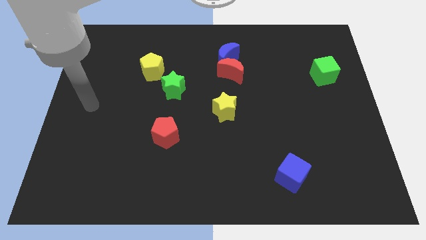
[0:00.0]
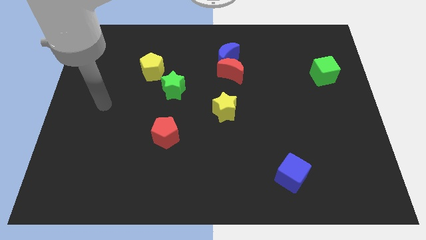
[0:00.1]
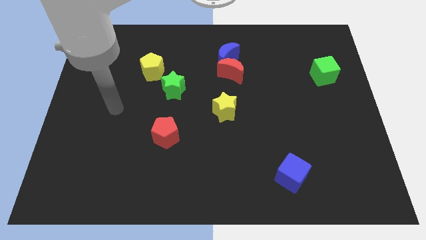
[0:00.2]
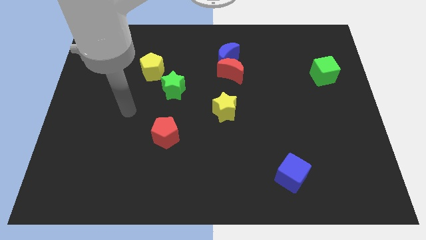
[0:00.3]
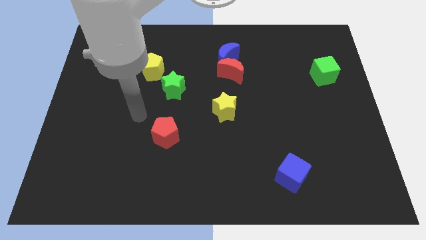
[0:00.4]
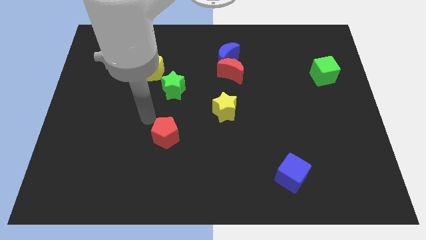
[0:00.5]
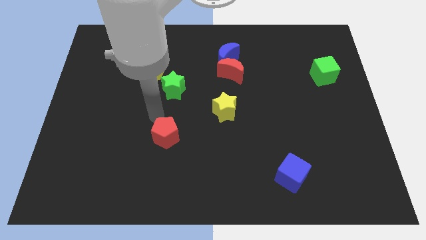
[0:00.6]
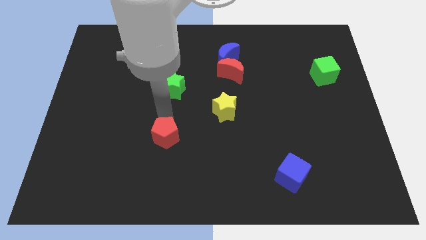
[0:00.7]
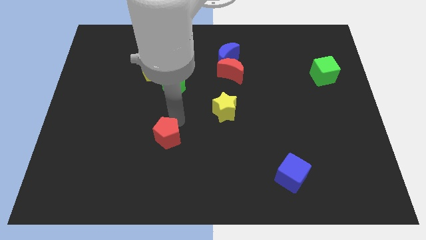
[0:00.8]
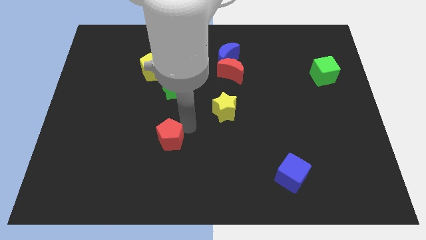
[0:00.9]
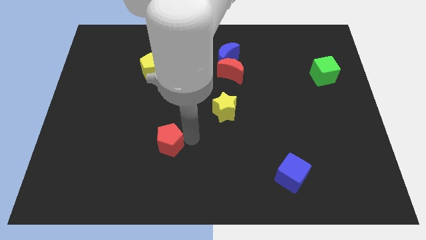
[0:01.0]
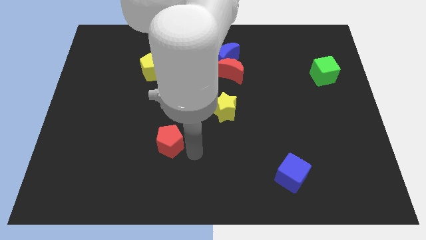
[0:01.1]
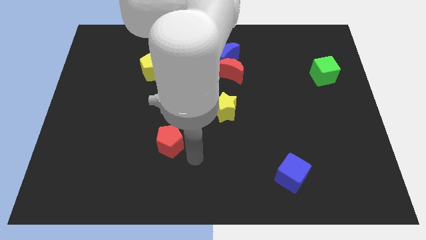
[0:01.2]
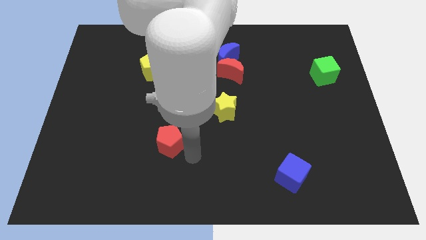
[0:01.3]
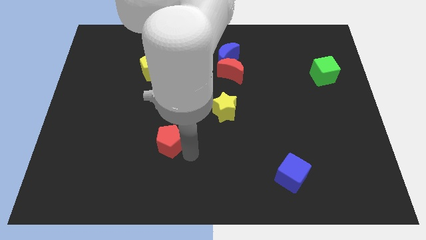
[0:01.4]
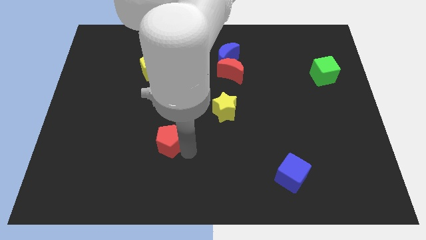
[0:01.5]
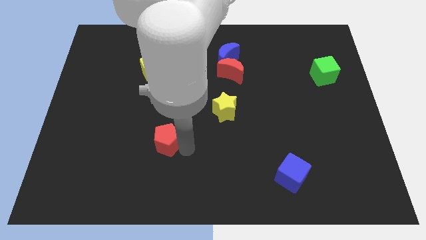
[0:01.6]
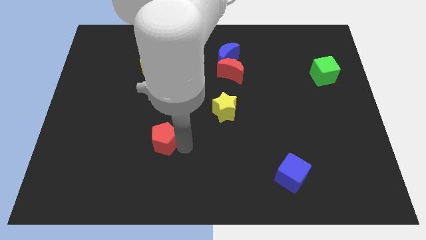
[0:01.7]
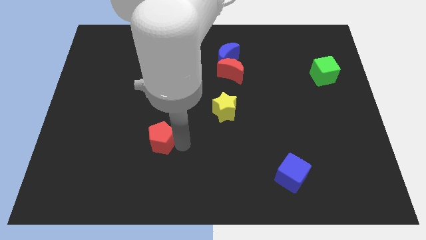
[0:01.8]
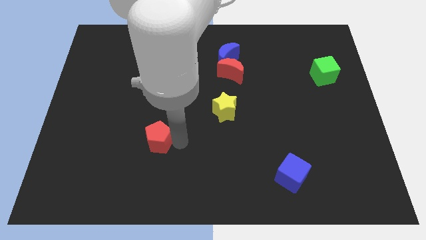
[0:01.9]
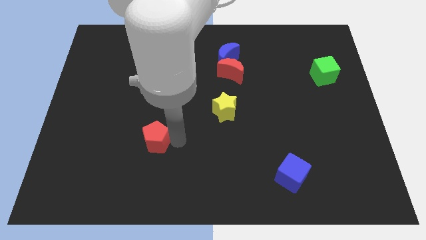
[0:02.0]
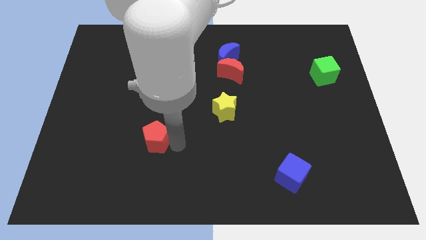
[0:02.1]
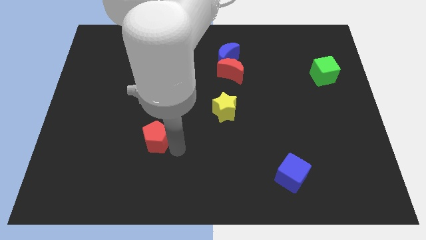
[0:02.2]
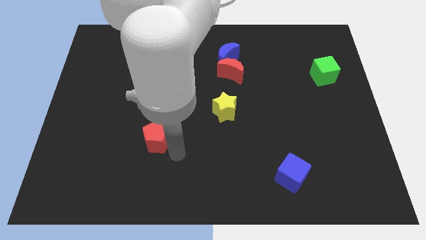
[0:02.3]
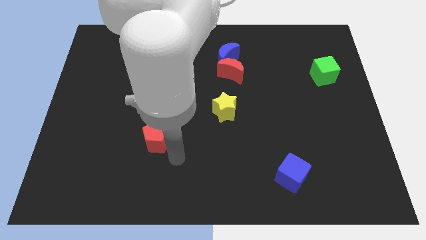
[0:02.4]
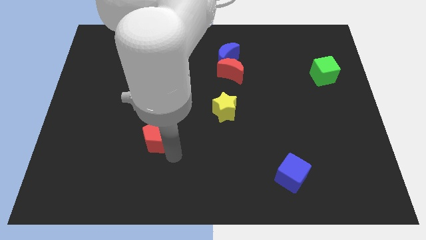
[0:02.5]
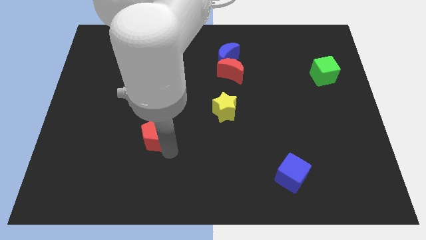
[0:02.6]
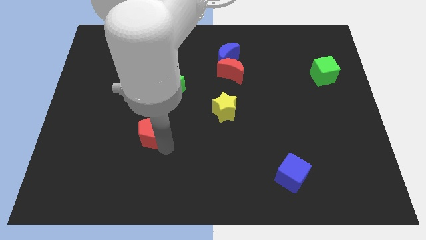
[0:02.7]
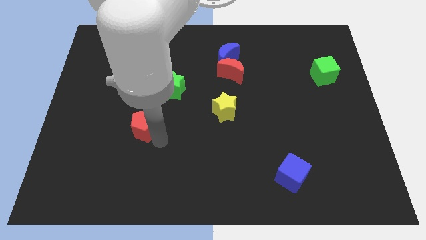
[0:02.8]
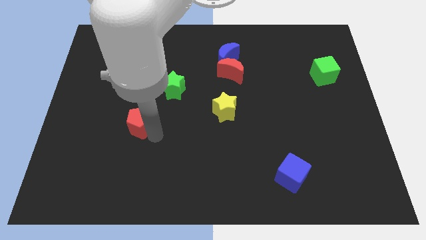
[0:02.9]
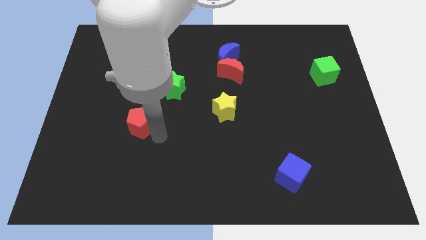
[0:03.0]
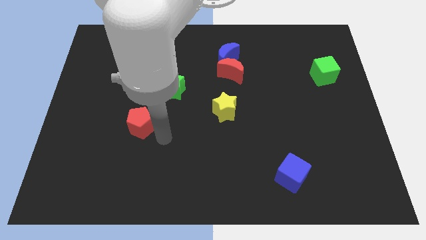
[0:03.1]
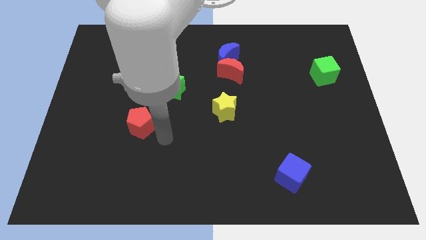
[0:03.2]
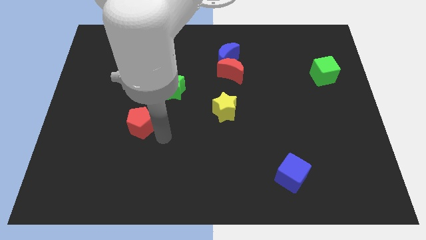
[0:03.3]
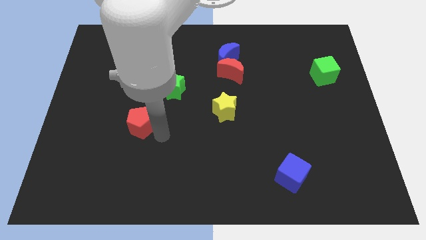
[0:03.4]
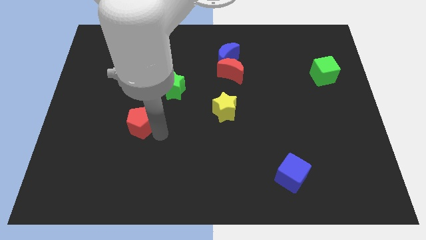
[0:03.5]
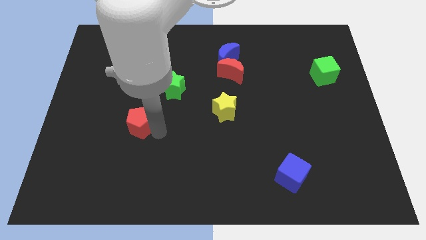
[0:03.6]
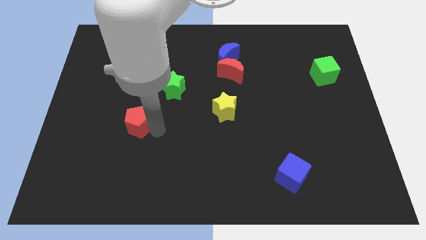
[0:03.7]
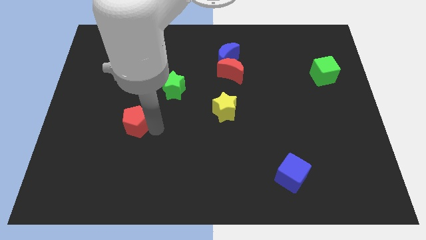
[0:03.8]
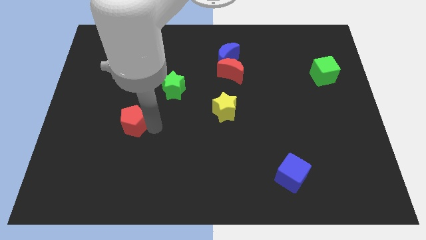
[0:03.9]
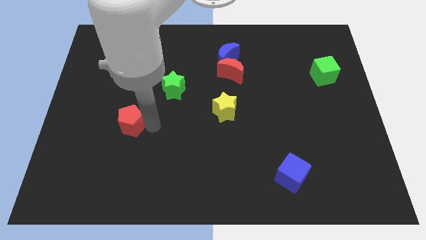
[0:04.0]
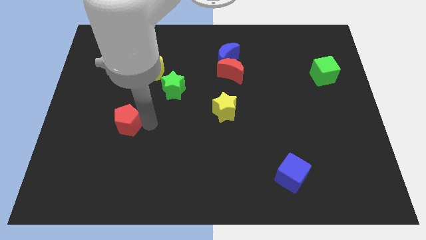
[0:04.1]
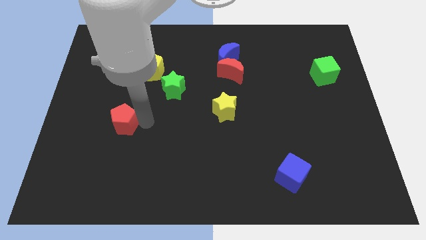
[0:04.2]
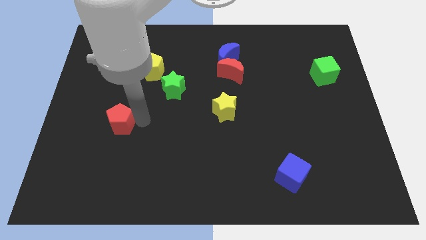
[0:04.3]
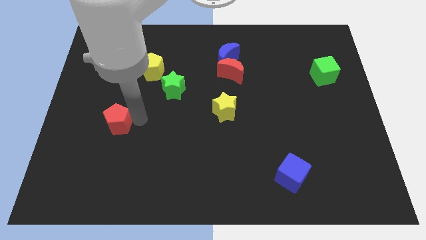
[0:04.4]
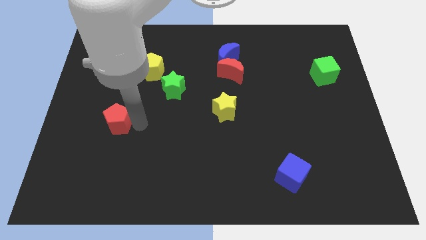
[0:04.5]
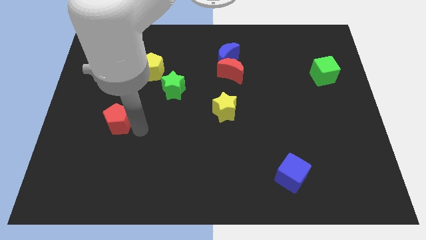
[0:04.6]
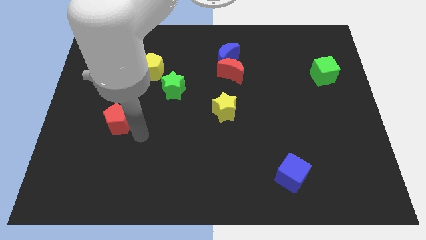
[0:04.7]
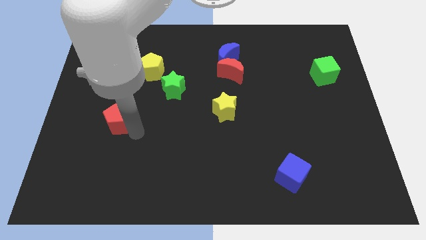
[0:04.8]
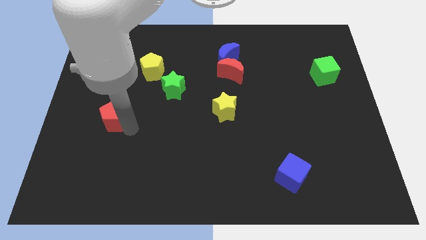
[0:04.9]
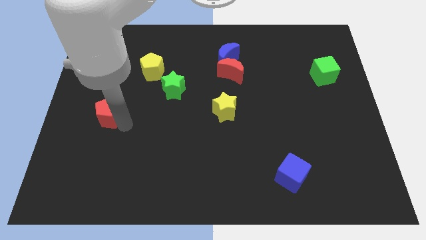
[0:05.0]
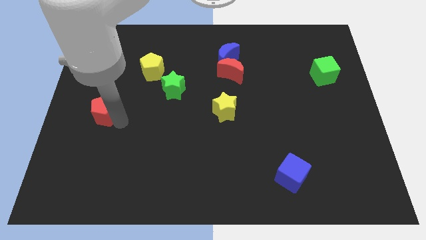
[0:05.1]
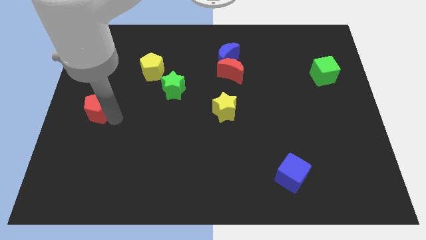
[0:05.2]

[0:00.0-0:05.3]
put the red pentagon to the center left

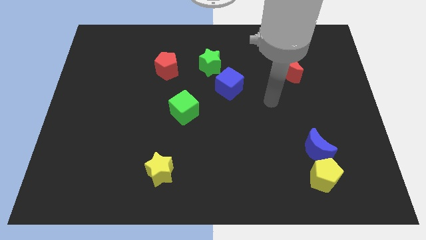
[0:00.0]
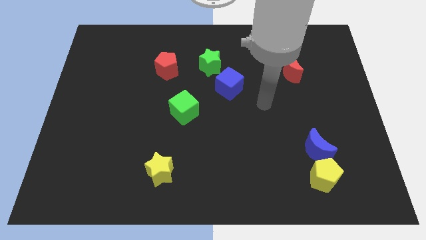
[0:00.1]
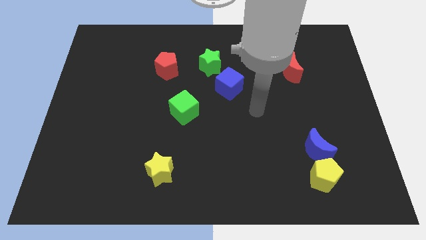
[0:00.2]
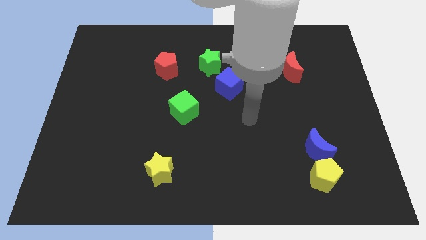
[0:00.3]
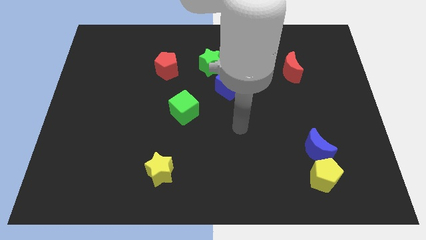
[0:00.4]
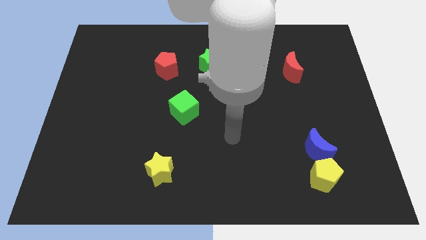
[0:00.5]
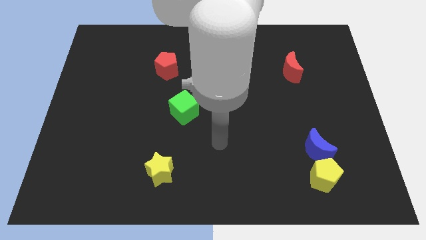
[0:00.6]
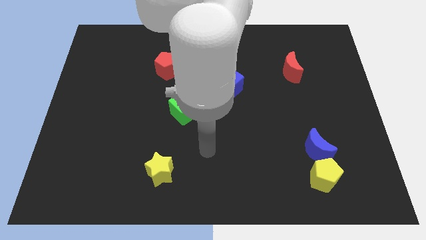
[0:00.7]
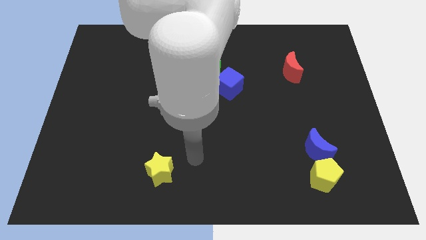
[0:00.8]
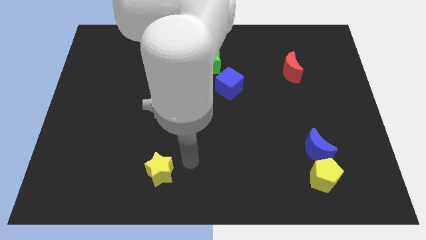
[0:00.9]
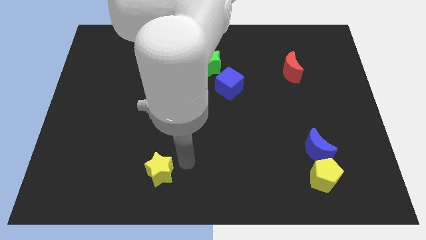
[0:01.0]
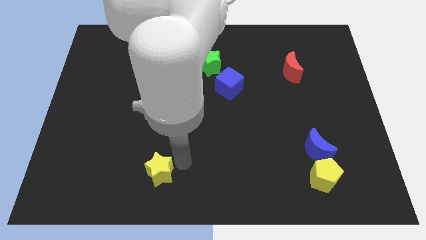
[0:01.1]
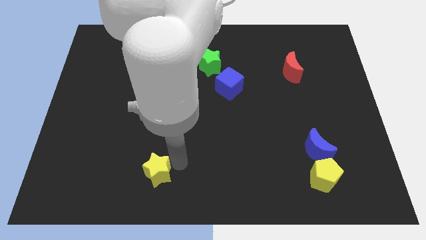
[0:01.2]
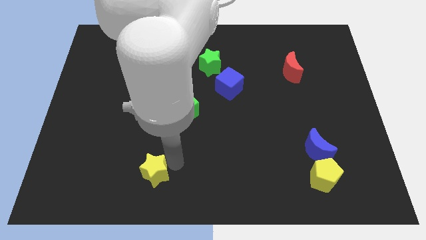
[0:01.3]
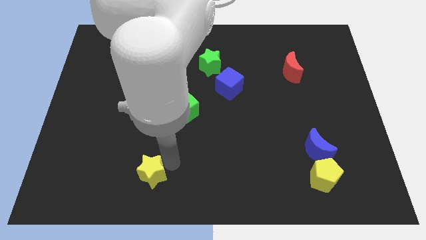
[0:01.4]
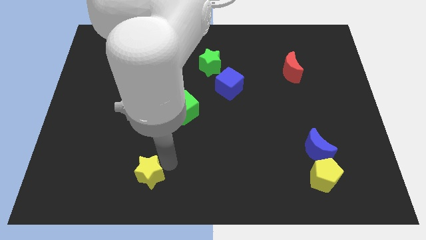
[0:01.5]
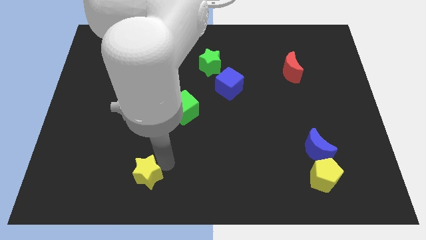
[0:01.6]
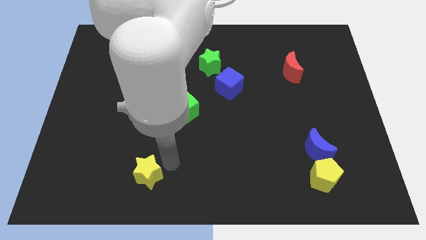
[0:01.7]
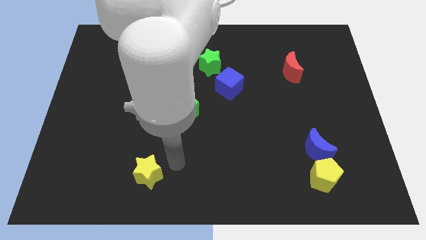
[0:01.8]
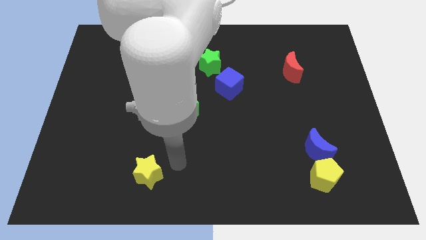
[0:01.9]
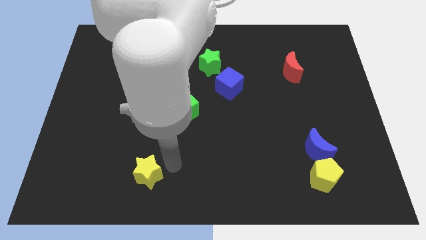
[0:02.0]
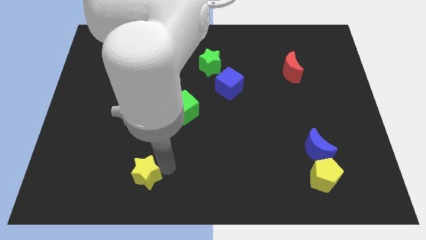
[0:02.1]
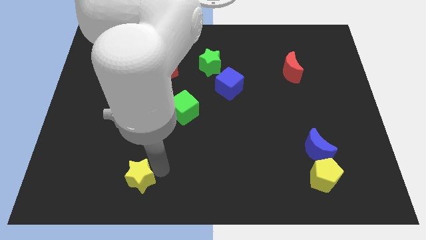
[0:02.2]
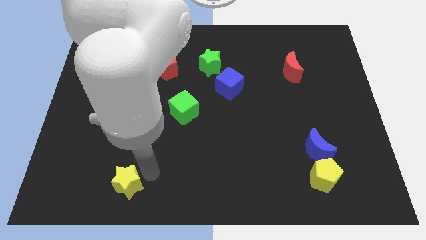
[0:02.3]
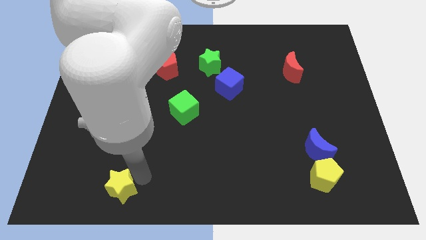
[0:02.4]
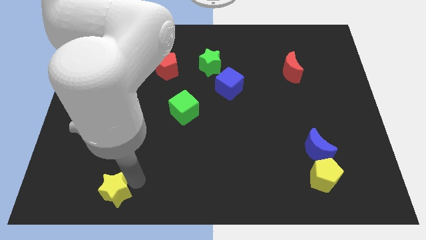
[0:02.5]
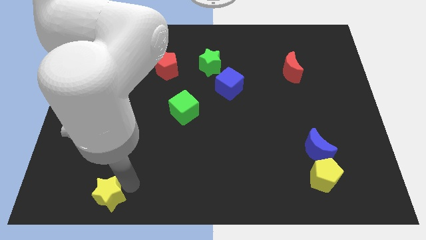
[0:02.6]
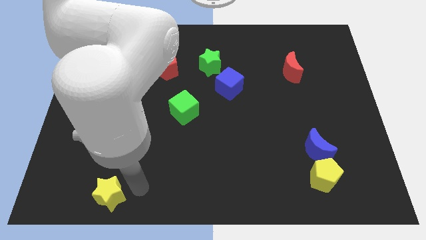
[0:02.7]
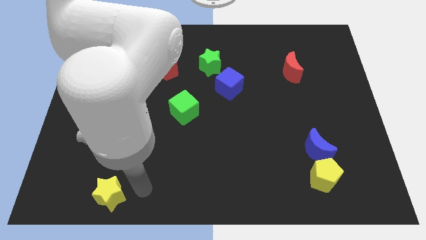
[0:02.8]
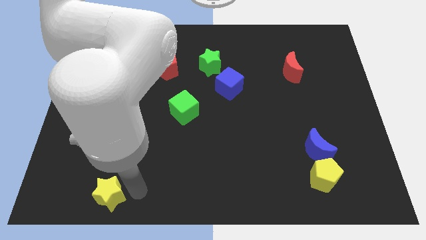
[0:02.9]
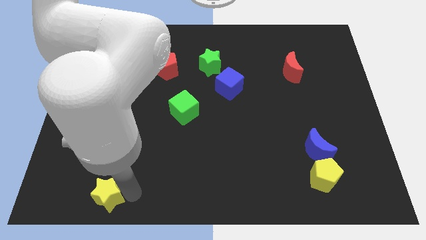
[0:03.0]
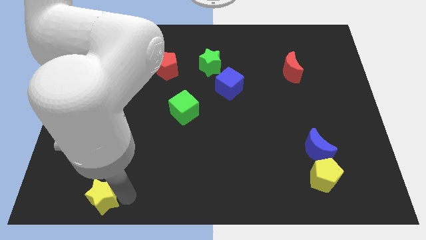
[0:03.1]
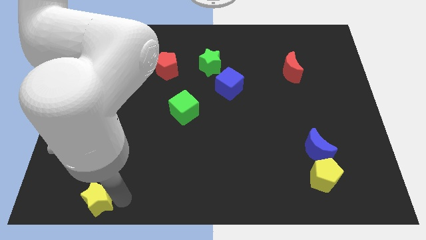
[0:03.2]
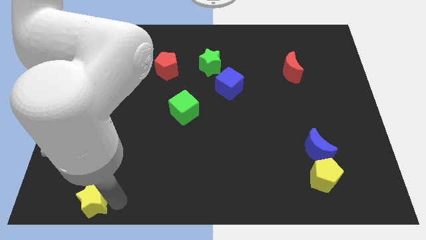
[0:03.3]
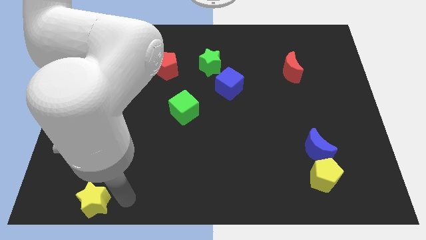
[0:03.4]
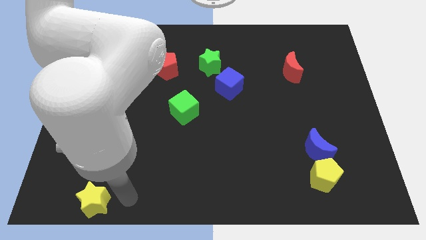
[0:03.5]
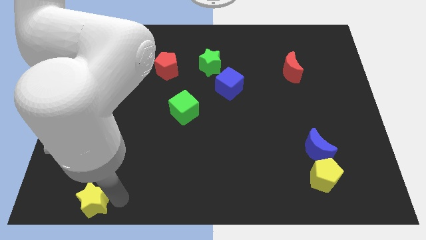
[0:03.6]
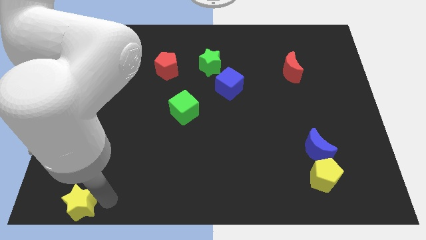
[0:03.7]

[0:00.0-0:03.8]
move the yellow star to the bottom left of the board
